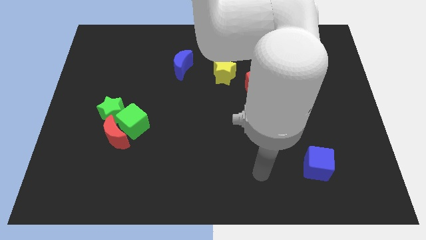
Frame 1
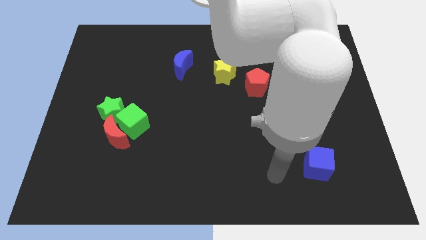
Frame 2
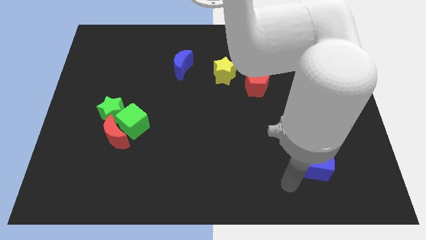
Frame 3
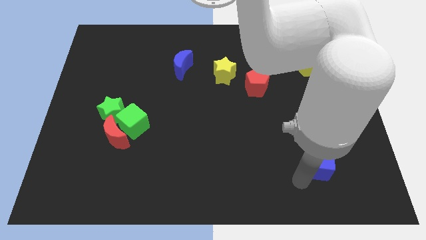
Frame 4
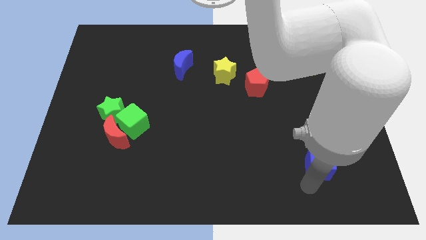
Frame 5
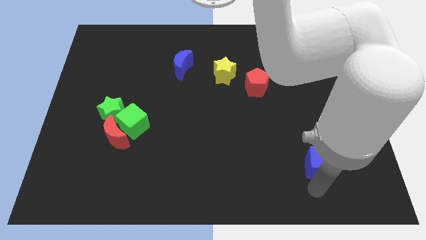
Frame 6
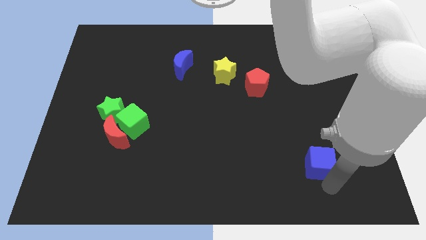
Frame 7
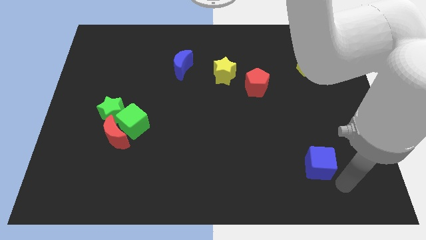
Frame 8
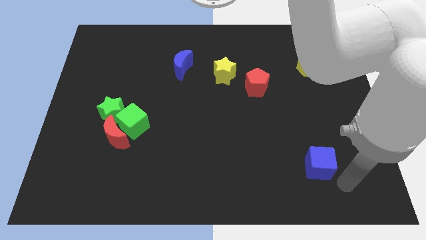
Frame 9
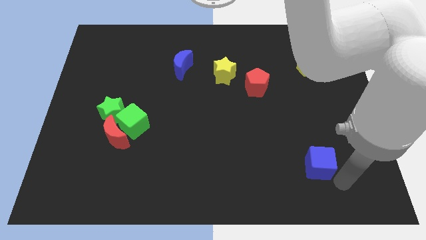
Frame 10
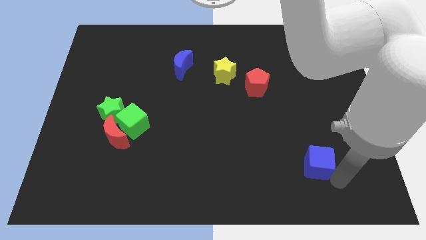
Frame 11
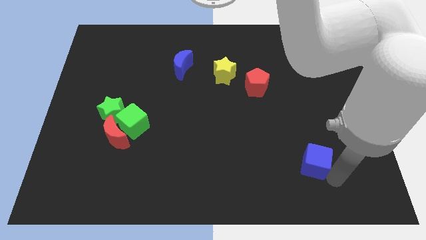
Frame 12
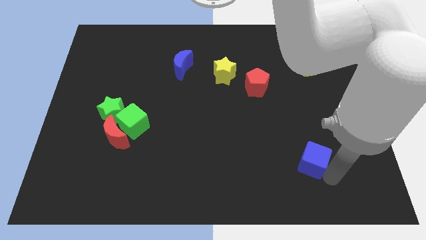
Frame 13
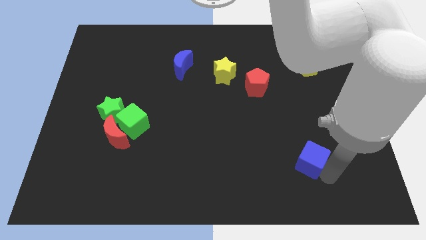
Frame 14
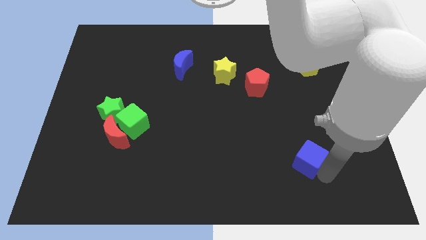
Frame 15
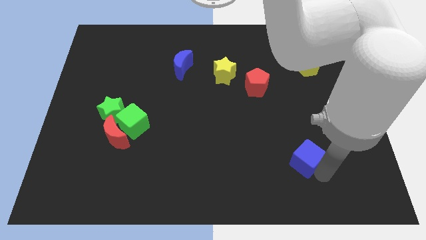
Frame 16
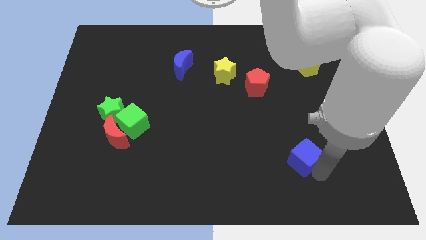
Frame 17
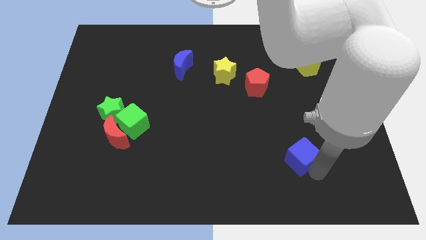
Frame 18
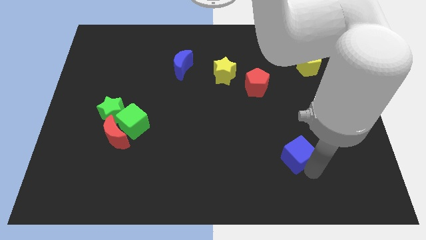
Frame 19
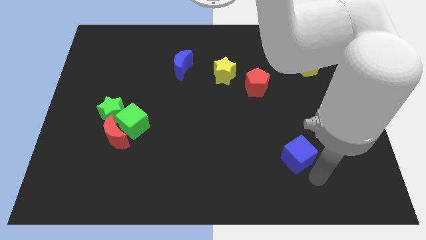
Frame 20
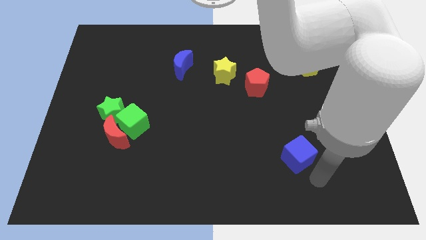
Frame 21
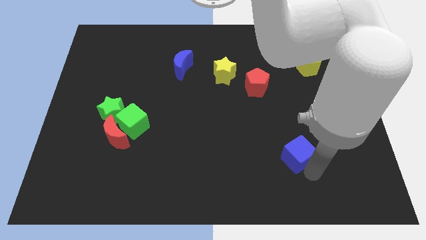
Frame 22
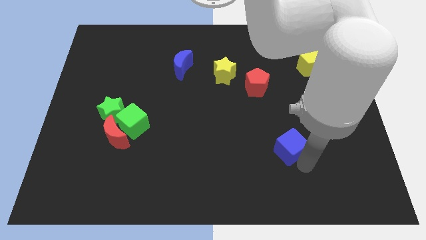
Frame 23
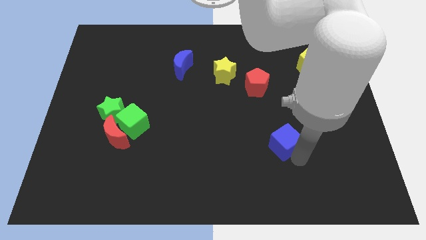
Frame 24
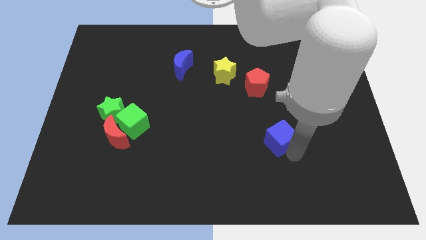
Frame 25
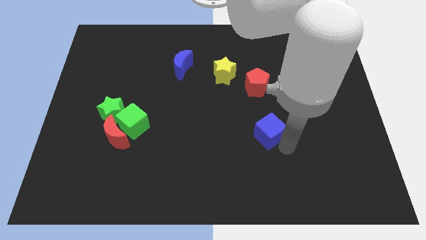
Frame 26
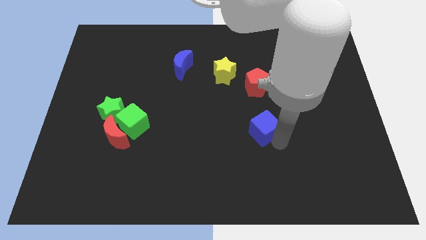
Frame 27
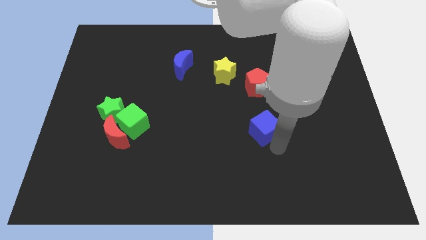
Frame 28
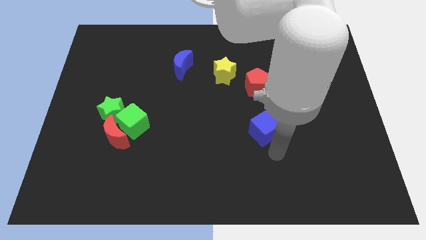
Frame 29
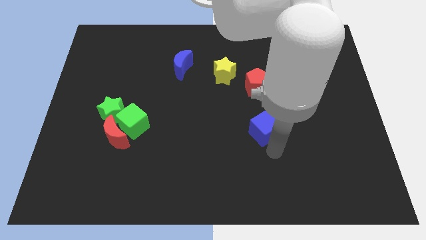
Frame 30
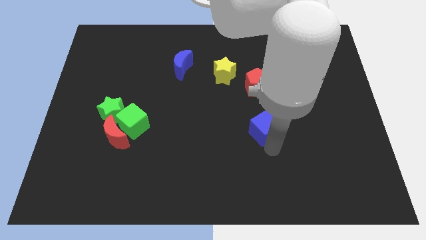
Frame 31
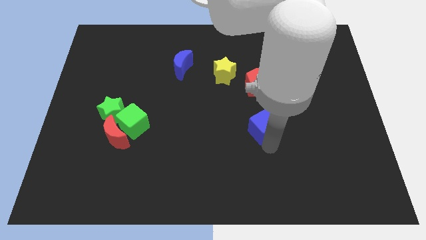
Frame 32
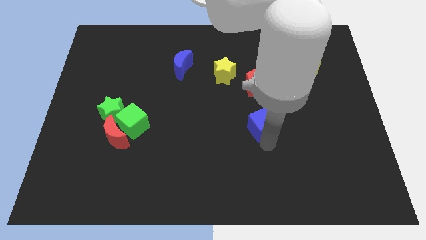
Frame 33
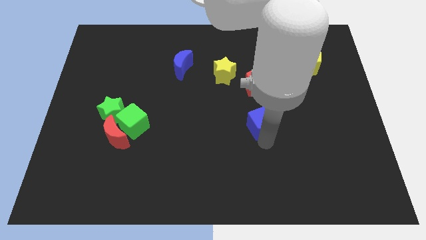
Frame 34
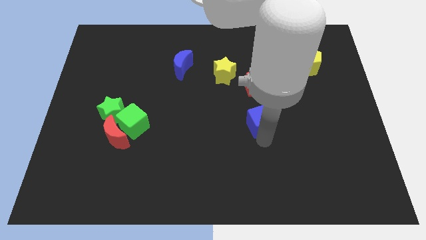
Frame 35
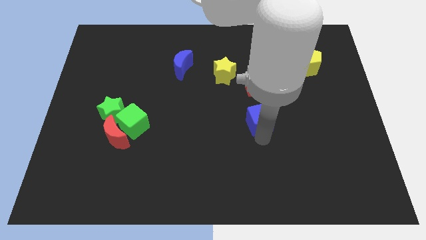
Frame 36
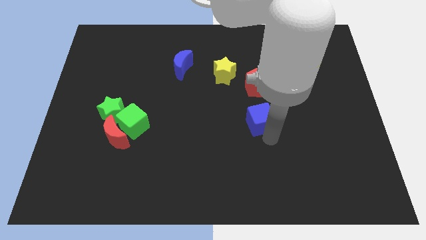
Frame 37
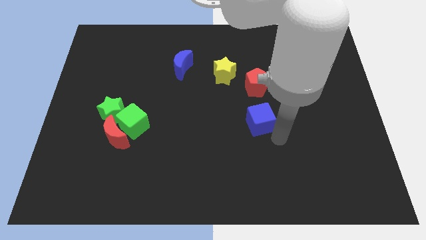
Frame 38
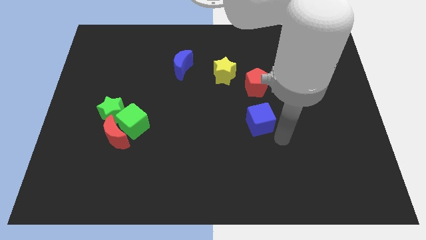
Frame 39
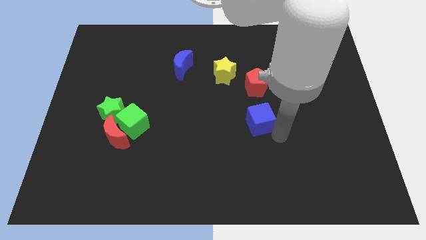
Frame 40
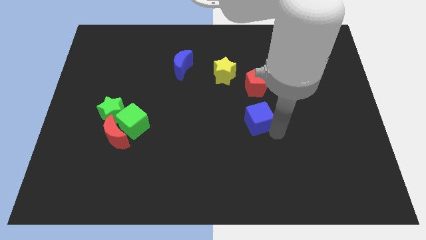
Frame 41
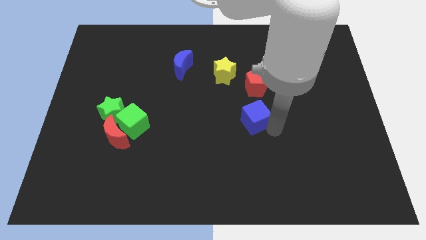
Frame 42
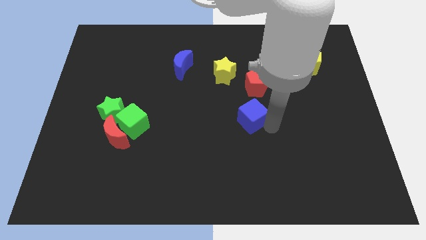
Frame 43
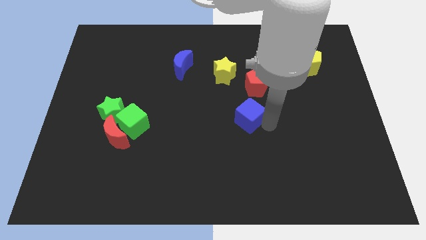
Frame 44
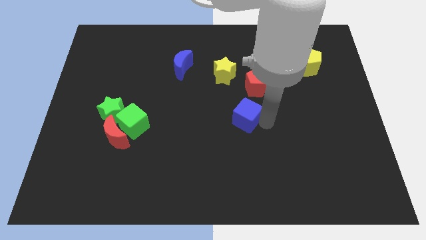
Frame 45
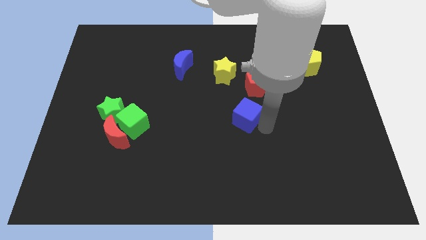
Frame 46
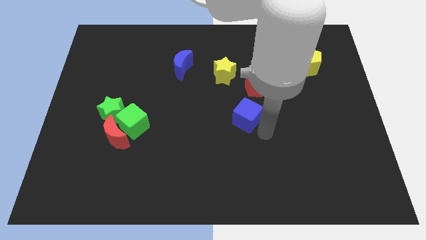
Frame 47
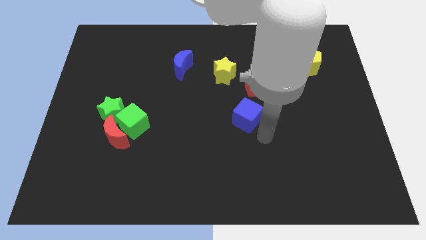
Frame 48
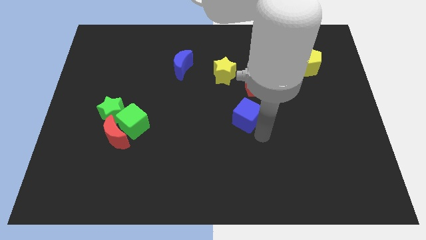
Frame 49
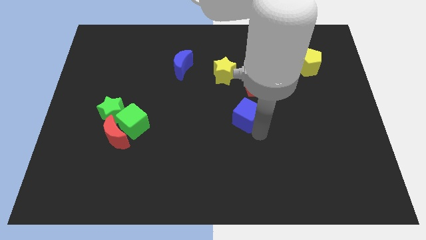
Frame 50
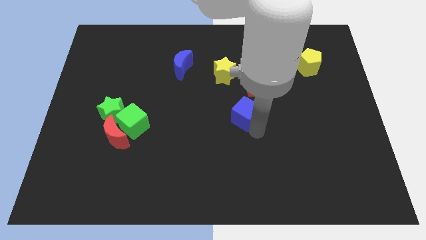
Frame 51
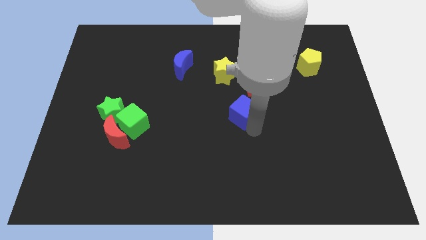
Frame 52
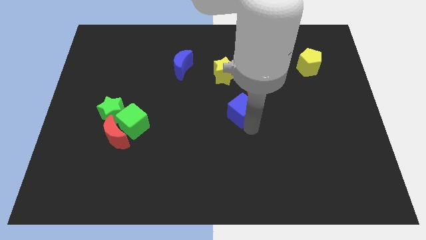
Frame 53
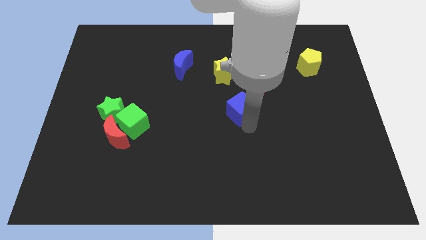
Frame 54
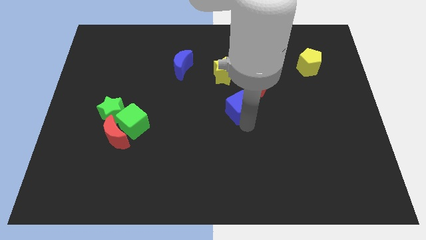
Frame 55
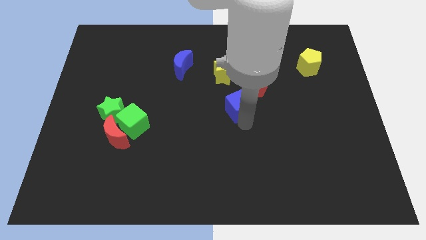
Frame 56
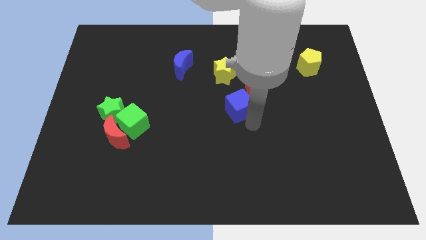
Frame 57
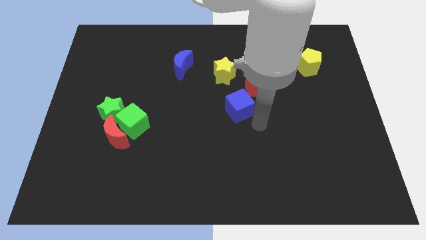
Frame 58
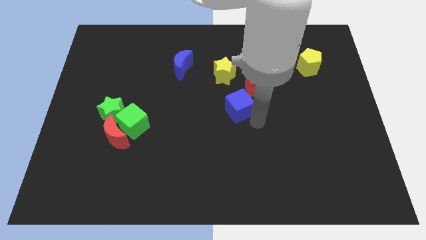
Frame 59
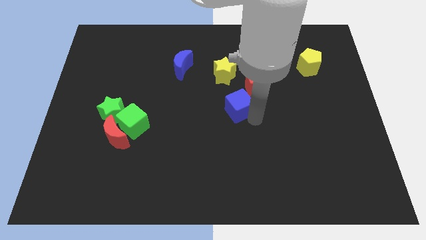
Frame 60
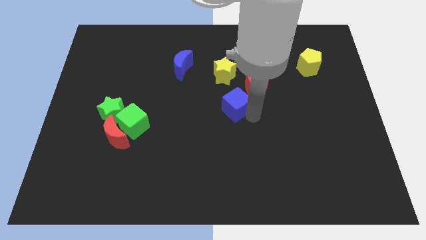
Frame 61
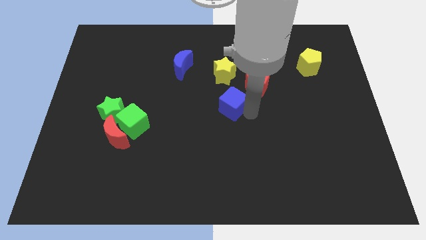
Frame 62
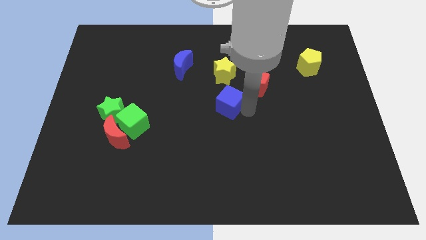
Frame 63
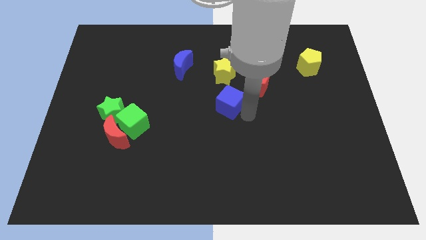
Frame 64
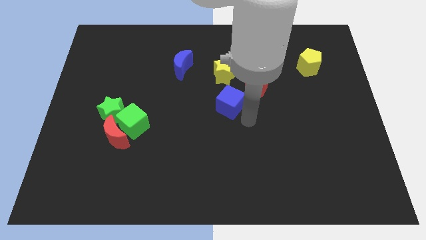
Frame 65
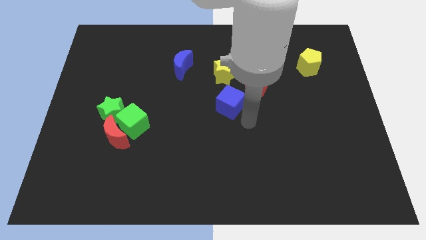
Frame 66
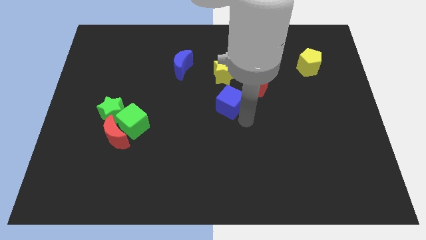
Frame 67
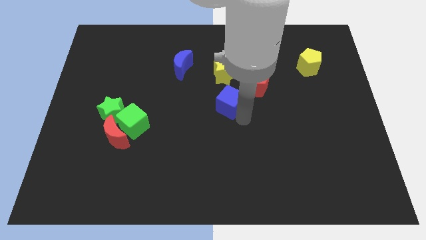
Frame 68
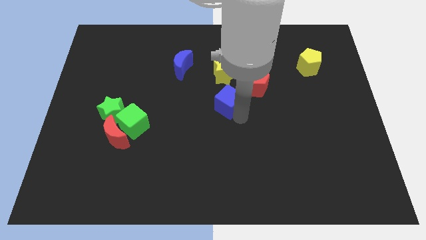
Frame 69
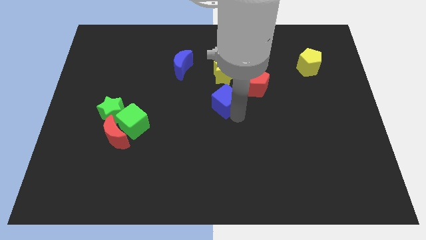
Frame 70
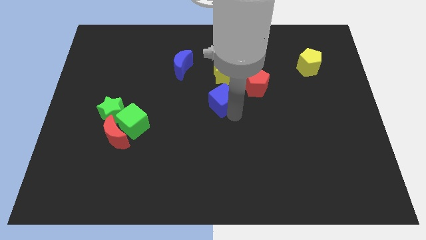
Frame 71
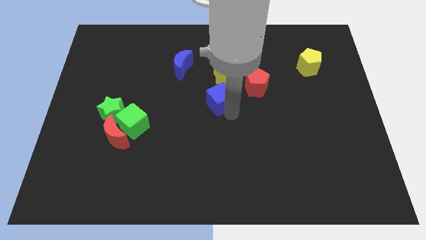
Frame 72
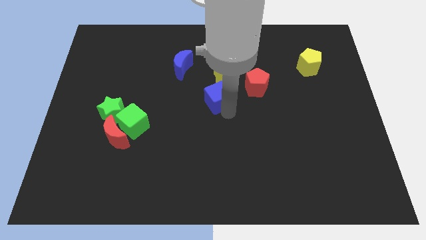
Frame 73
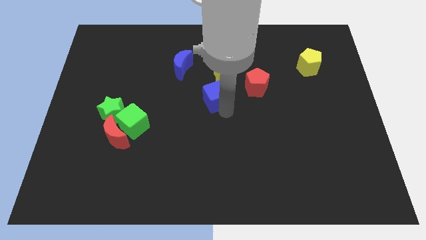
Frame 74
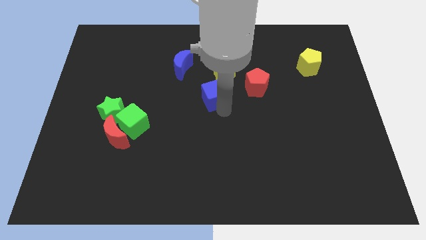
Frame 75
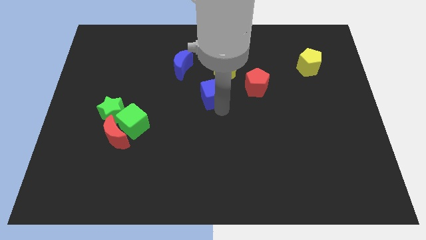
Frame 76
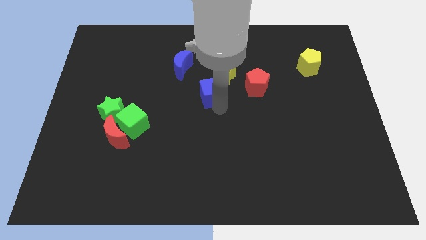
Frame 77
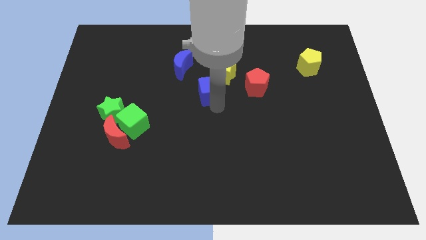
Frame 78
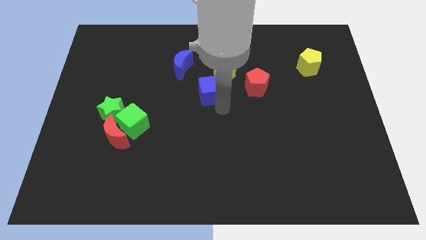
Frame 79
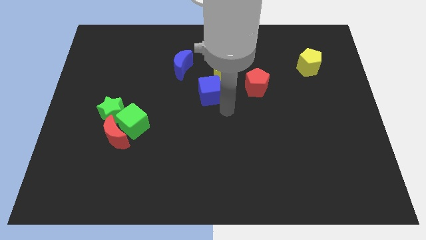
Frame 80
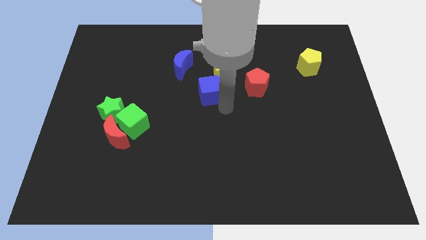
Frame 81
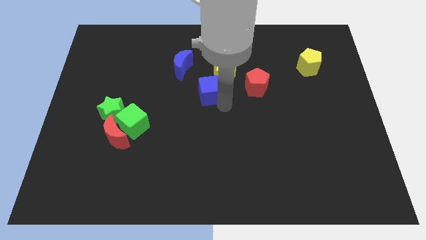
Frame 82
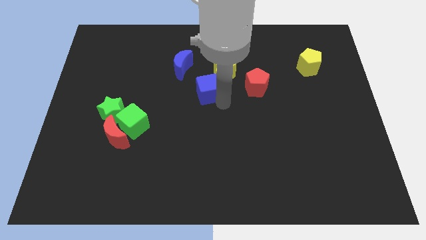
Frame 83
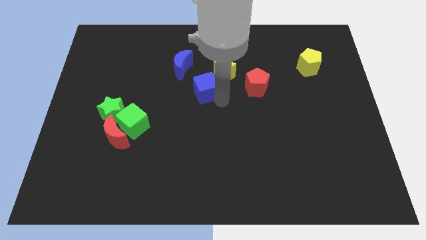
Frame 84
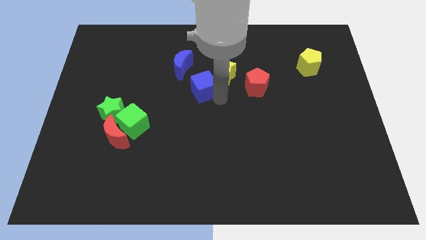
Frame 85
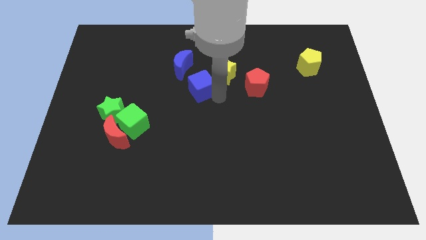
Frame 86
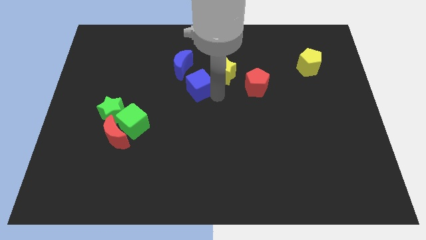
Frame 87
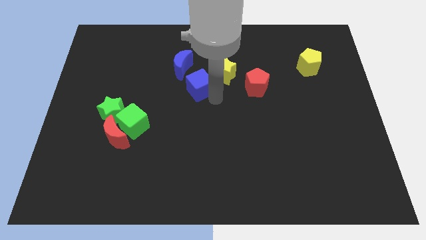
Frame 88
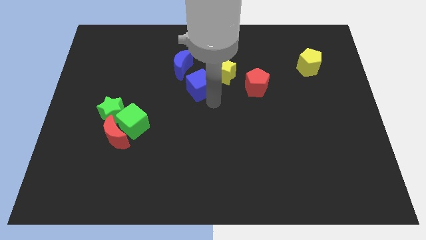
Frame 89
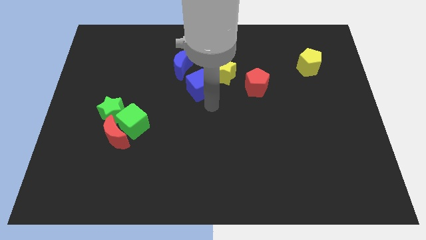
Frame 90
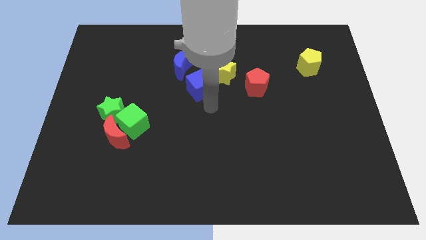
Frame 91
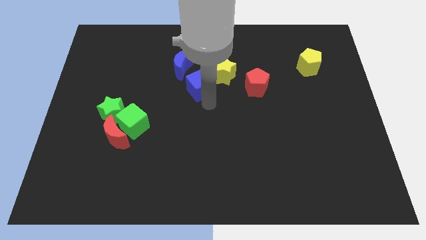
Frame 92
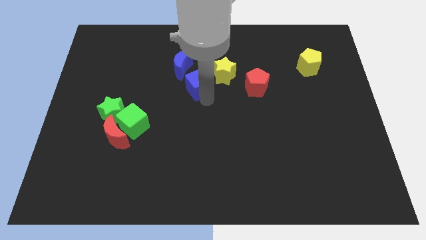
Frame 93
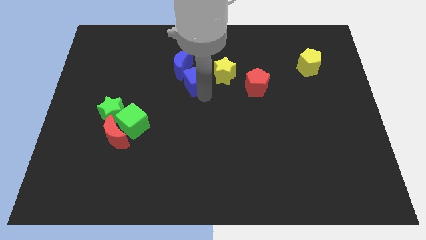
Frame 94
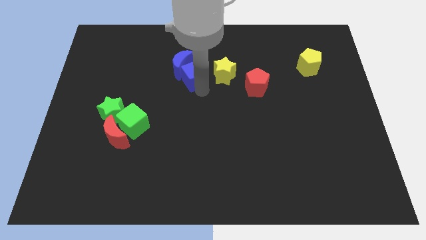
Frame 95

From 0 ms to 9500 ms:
push the blue cube to the blue moon
